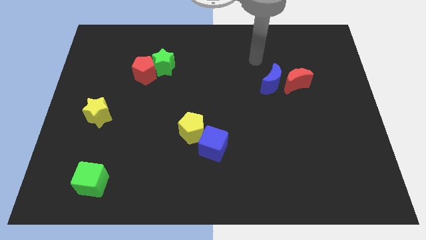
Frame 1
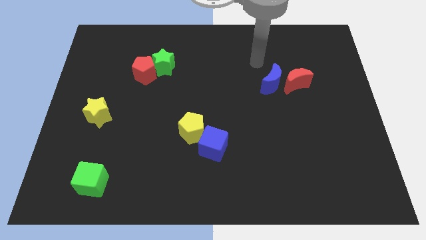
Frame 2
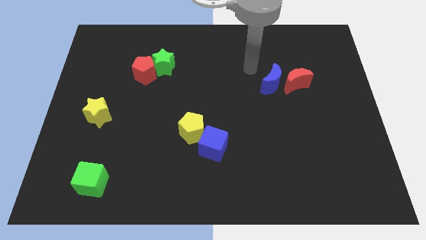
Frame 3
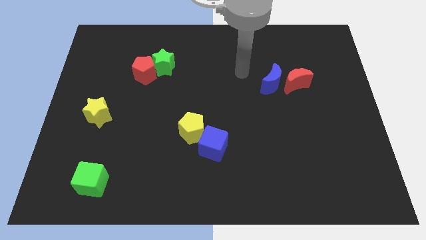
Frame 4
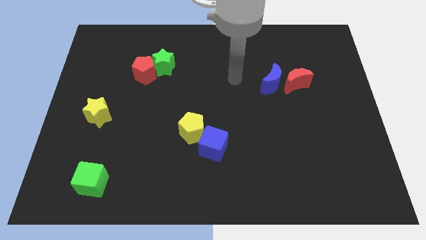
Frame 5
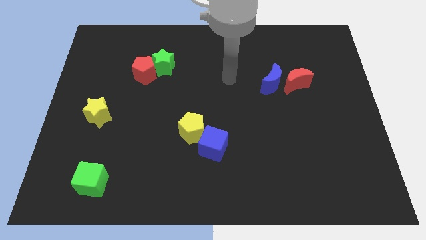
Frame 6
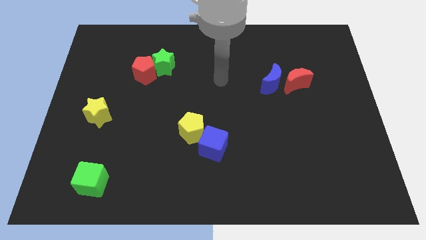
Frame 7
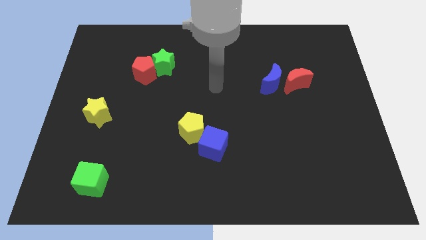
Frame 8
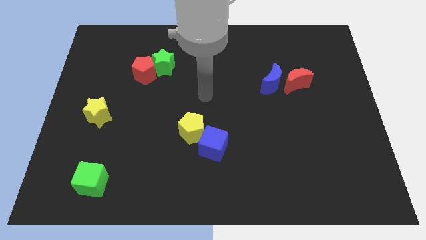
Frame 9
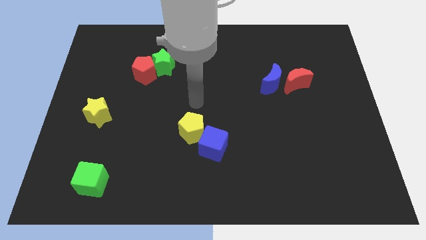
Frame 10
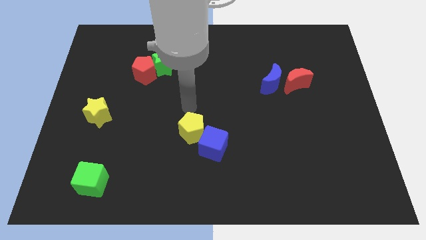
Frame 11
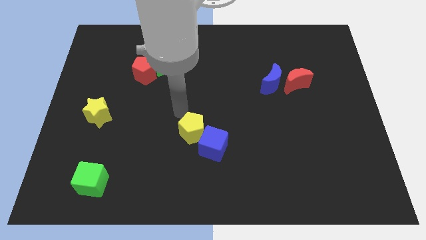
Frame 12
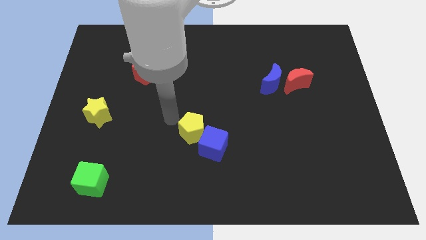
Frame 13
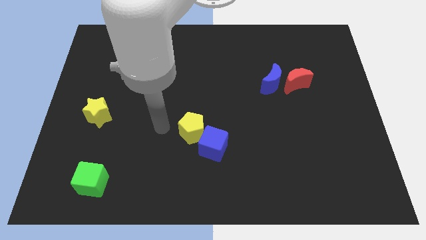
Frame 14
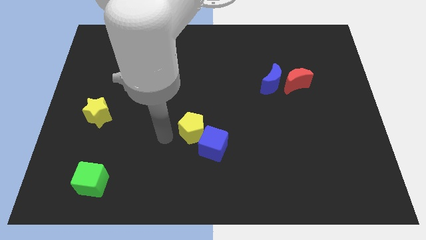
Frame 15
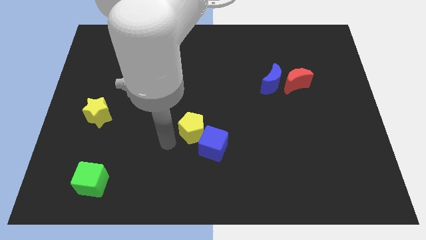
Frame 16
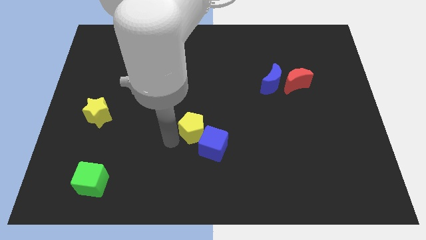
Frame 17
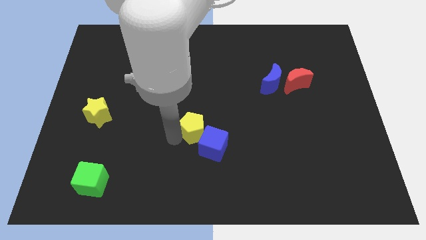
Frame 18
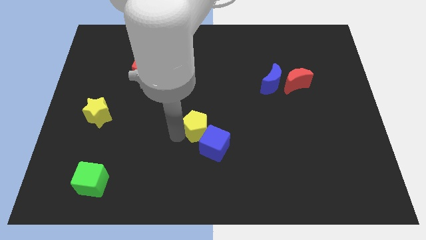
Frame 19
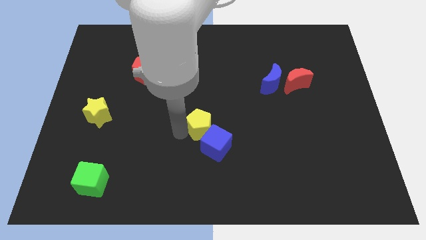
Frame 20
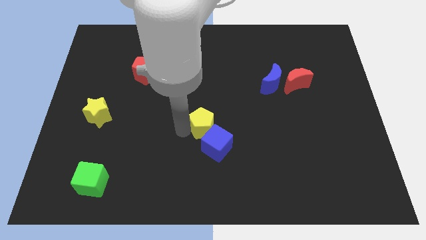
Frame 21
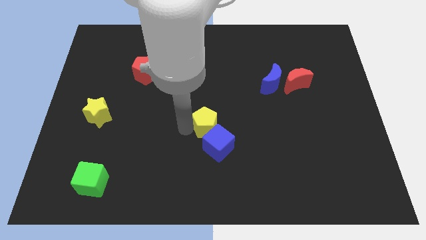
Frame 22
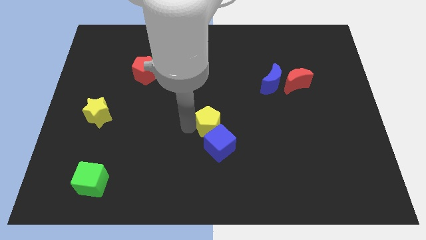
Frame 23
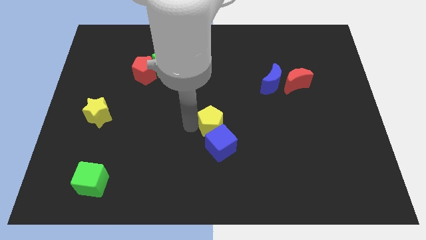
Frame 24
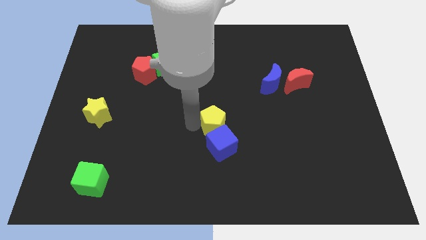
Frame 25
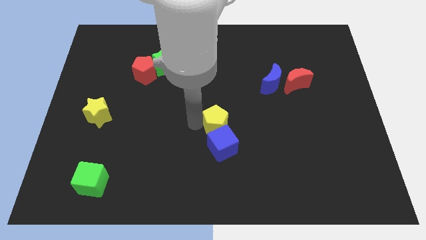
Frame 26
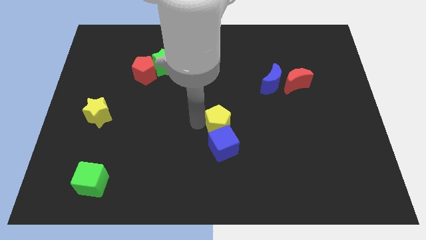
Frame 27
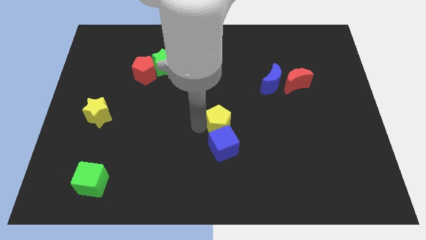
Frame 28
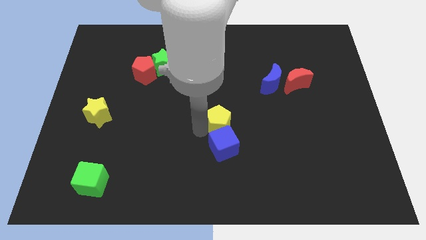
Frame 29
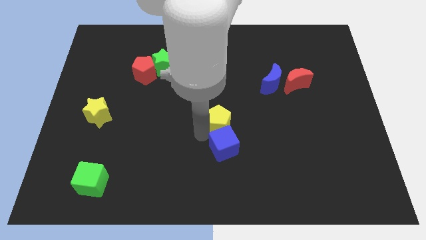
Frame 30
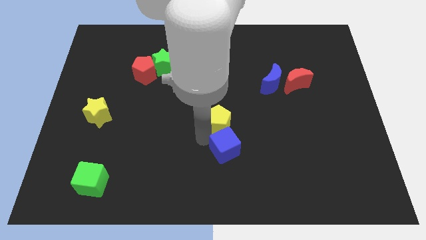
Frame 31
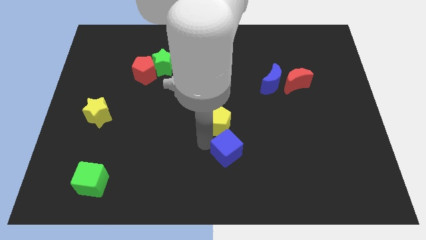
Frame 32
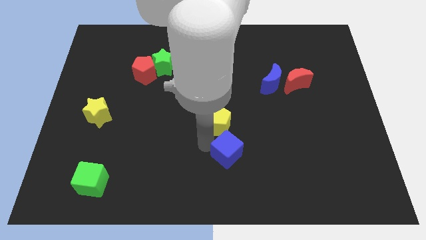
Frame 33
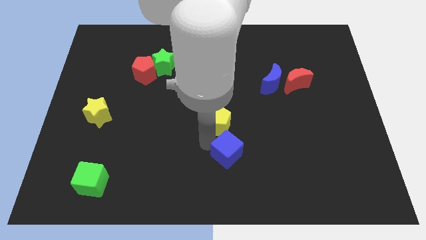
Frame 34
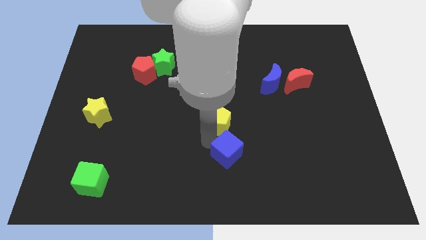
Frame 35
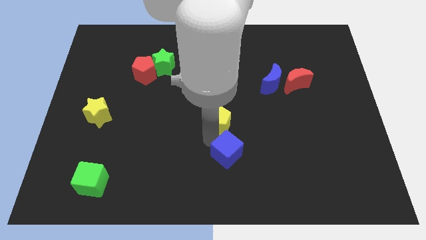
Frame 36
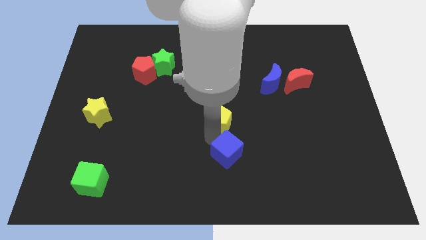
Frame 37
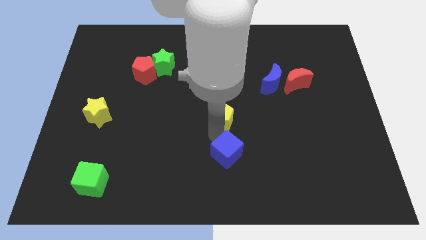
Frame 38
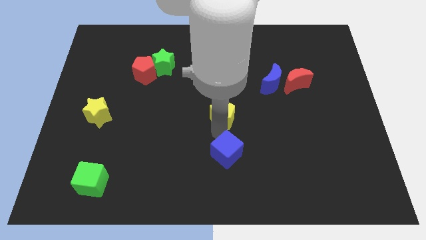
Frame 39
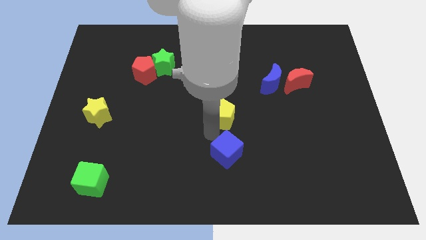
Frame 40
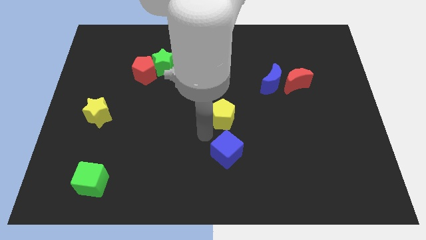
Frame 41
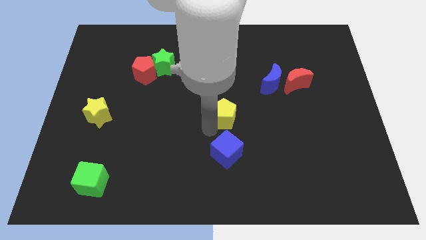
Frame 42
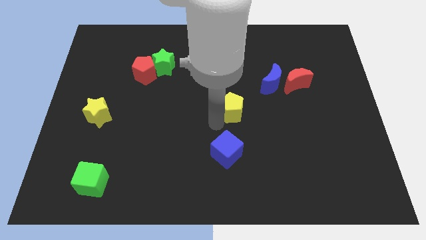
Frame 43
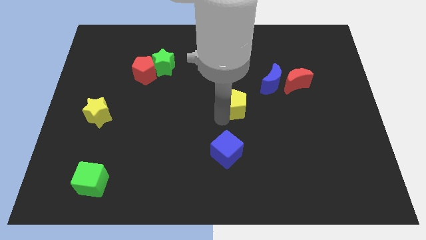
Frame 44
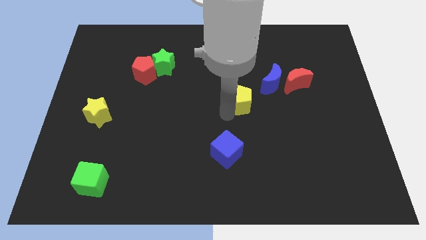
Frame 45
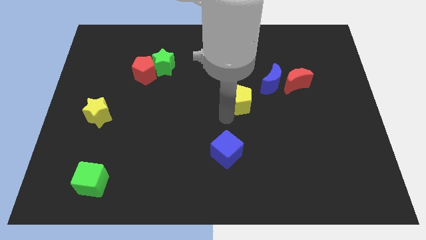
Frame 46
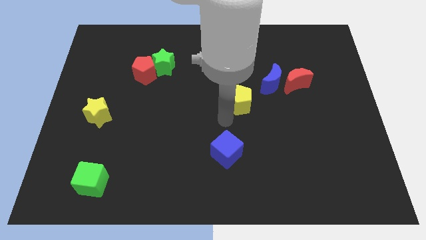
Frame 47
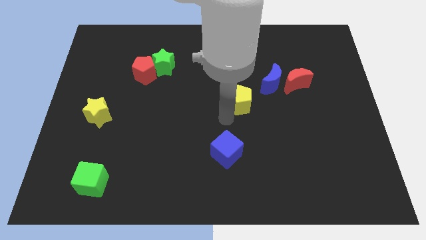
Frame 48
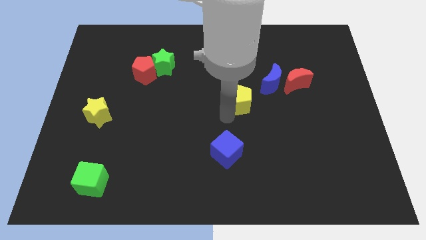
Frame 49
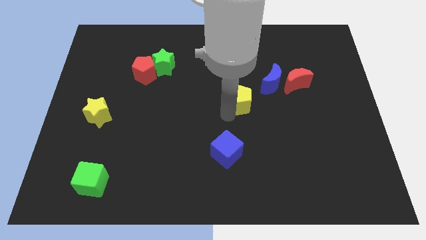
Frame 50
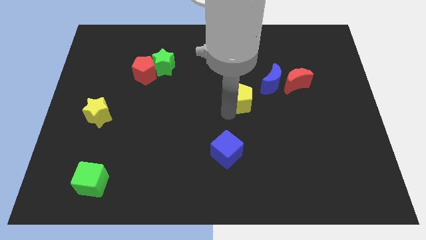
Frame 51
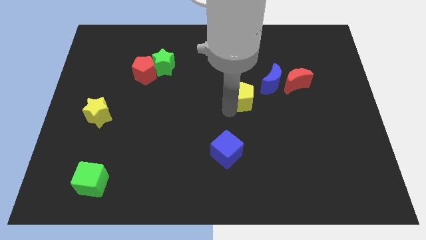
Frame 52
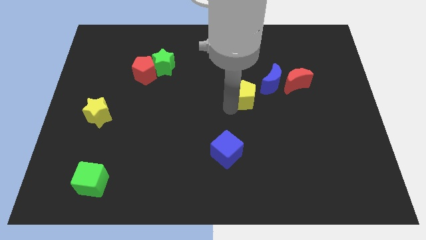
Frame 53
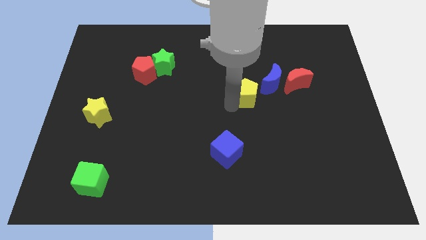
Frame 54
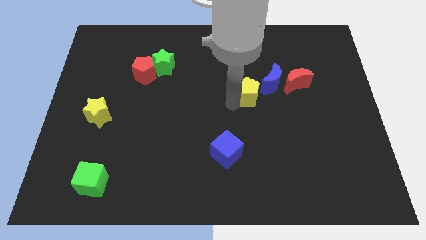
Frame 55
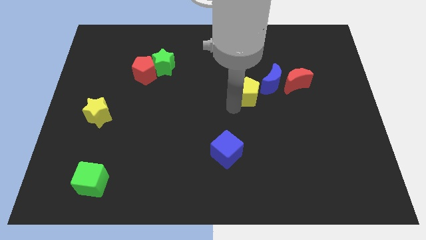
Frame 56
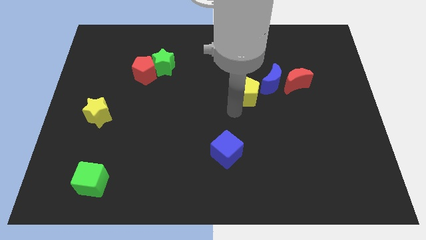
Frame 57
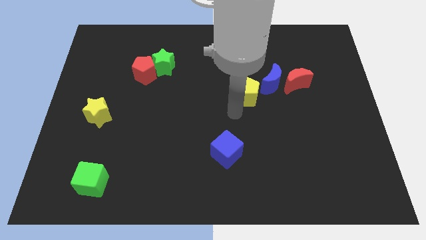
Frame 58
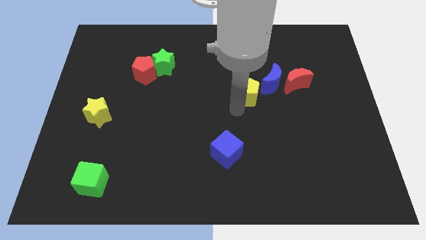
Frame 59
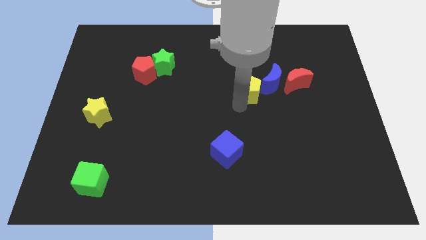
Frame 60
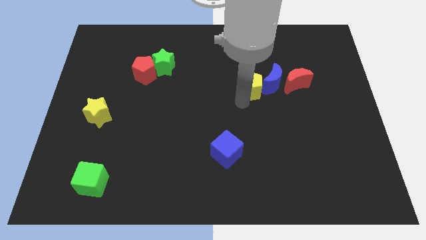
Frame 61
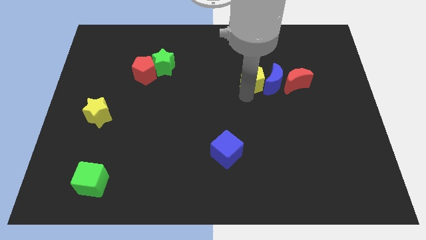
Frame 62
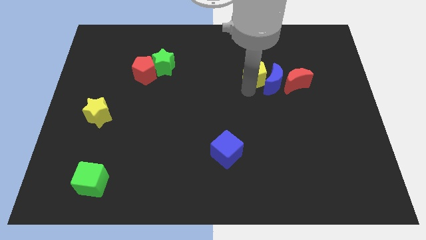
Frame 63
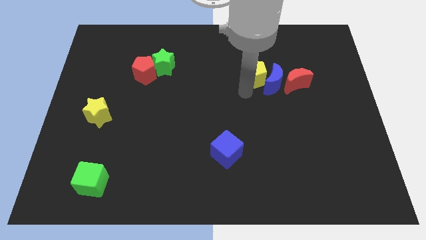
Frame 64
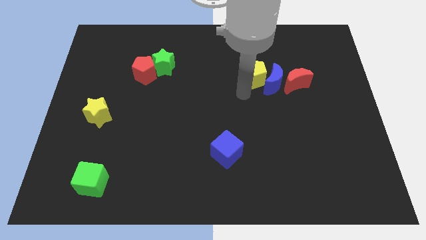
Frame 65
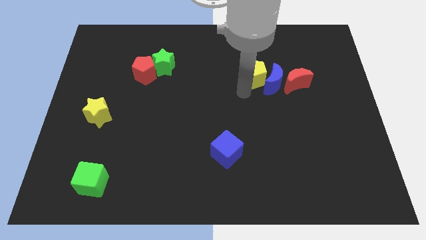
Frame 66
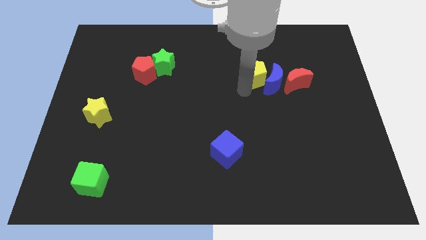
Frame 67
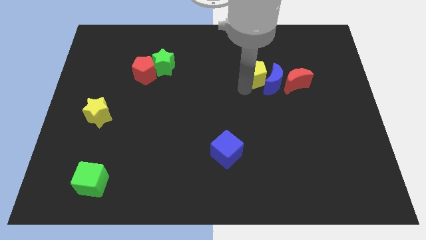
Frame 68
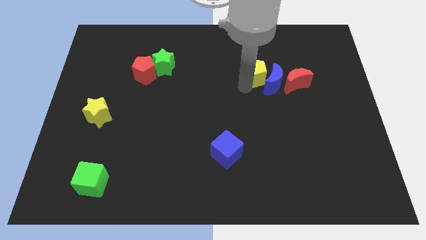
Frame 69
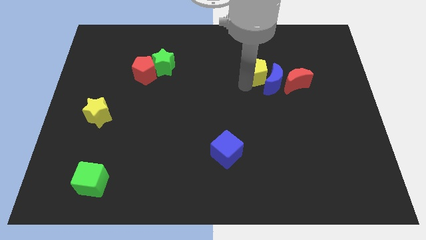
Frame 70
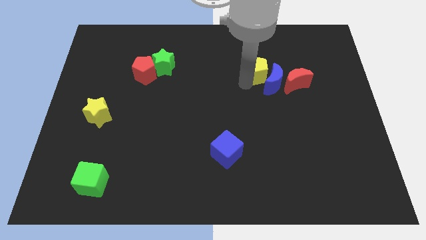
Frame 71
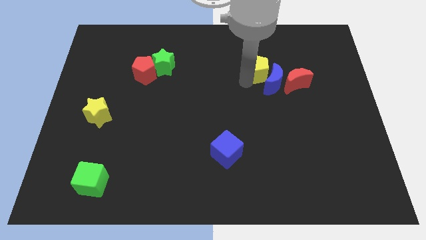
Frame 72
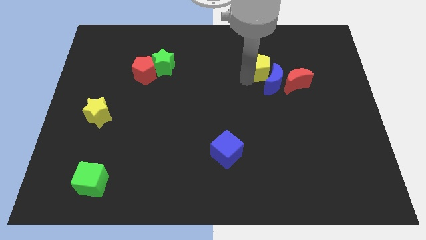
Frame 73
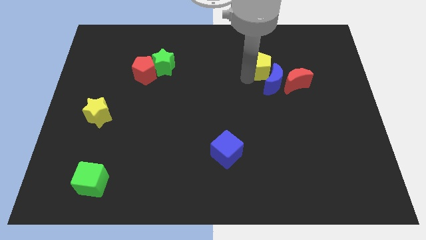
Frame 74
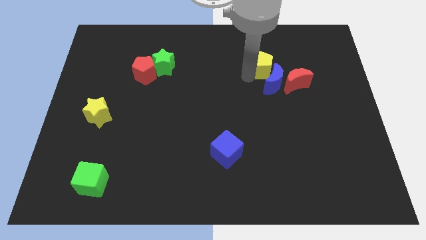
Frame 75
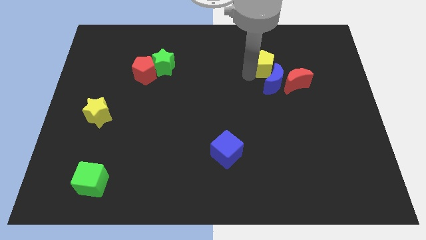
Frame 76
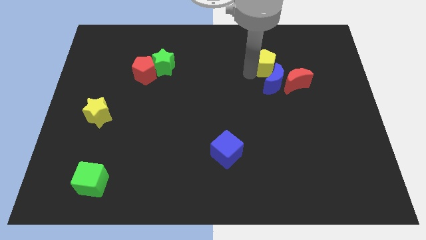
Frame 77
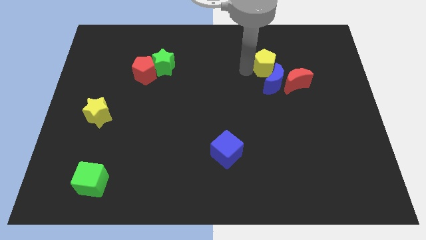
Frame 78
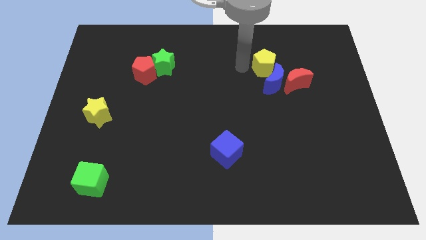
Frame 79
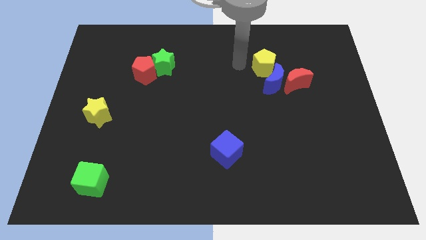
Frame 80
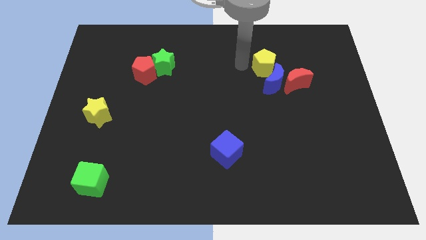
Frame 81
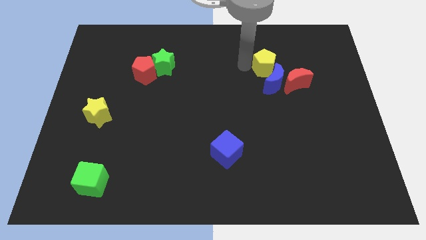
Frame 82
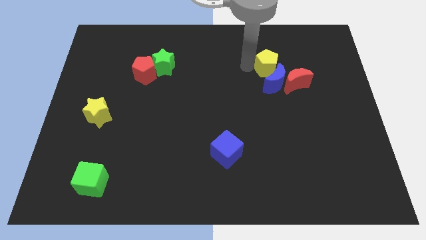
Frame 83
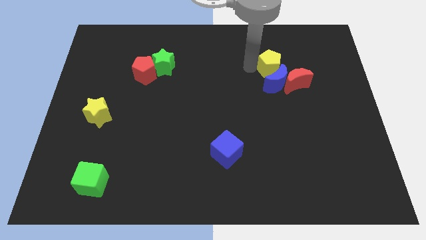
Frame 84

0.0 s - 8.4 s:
push the yellow pentagon to the top right of the blue moon

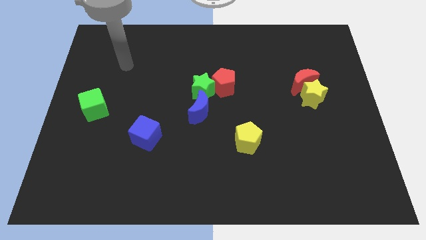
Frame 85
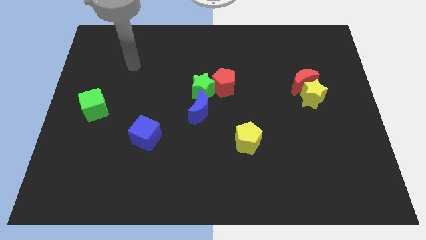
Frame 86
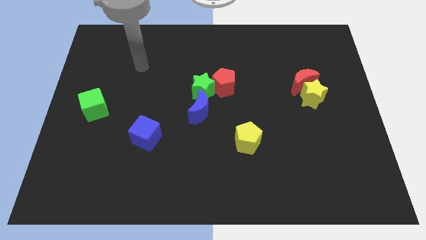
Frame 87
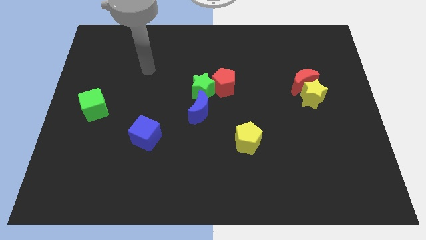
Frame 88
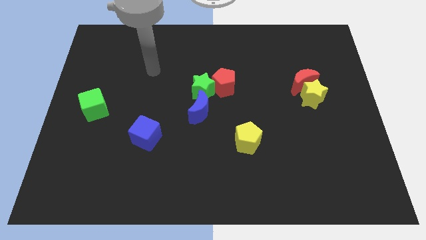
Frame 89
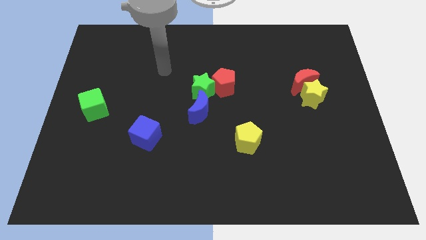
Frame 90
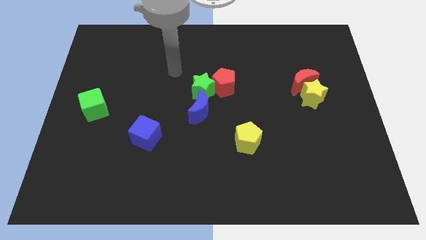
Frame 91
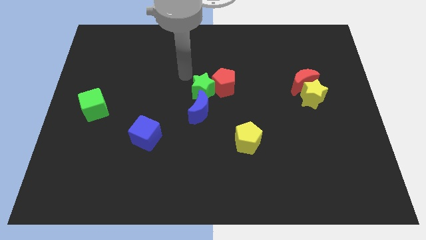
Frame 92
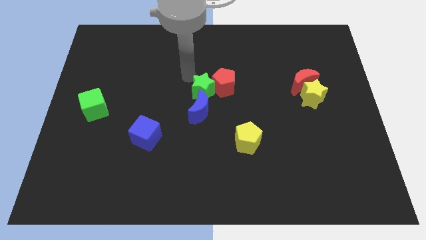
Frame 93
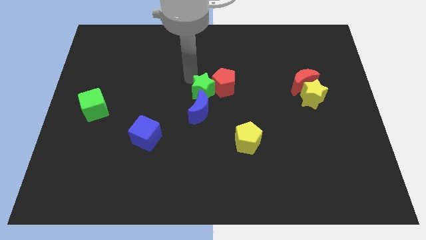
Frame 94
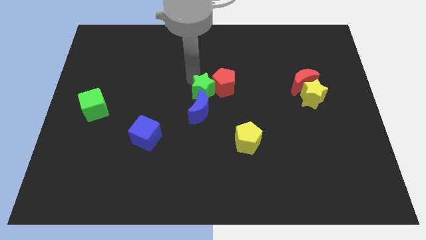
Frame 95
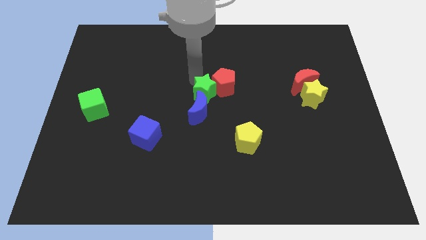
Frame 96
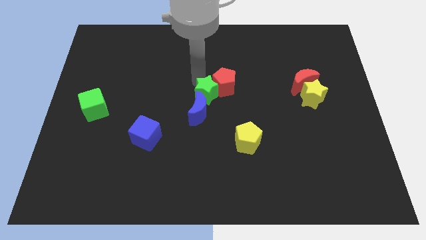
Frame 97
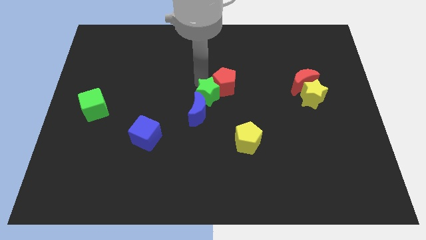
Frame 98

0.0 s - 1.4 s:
move the green star to the bottom of the red pentagon
